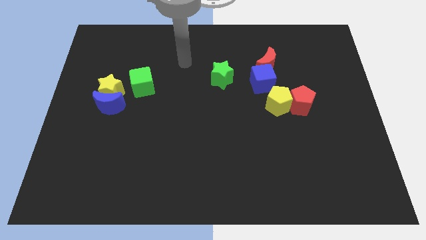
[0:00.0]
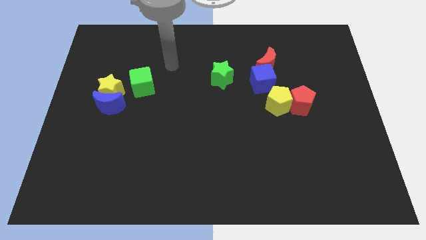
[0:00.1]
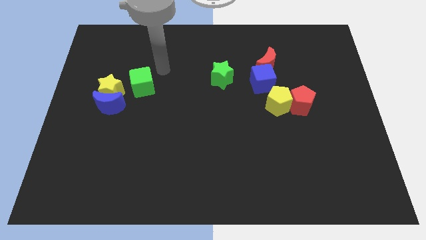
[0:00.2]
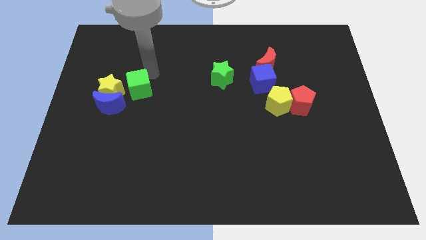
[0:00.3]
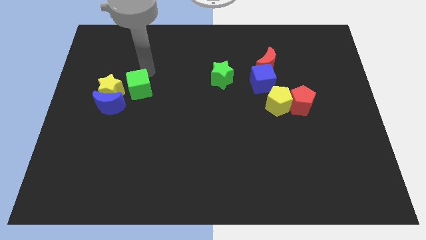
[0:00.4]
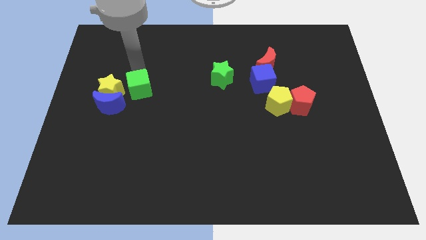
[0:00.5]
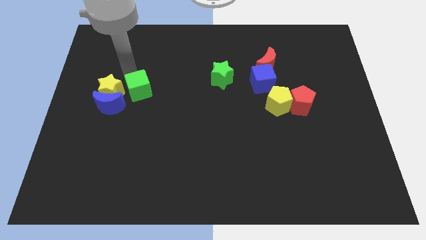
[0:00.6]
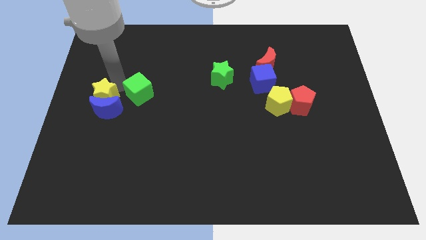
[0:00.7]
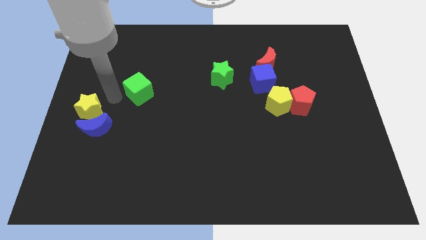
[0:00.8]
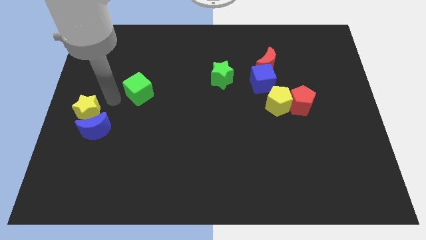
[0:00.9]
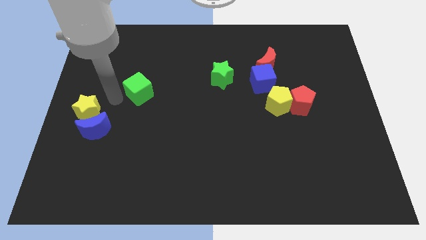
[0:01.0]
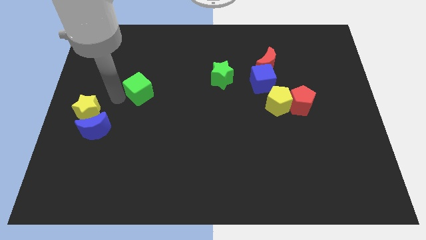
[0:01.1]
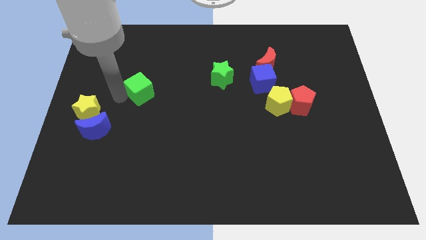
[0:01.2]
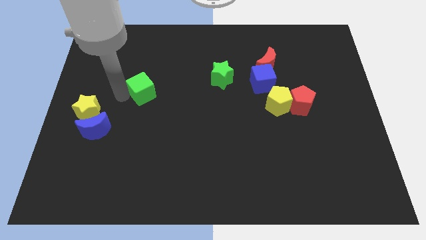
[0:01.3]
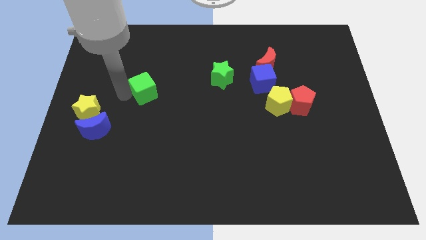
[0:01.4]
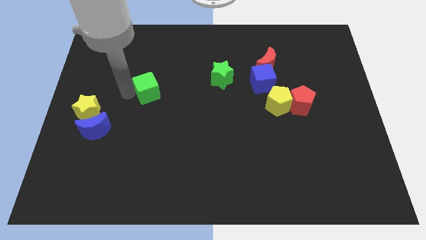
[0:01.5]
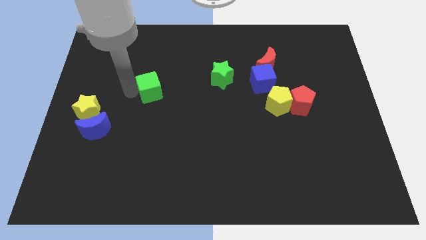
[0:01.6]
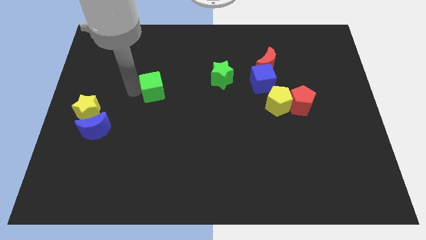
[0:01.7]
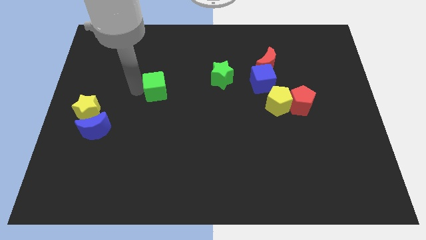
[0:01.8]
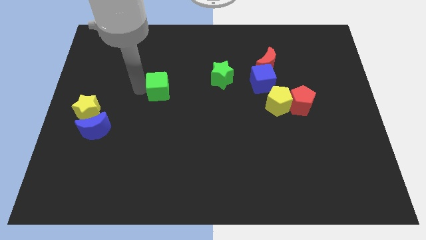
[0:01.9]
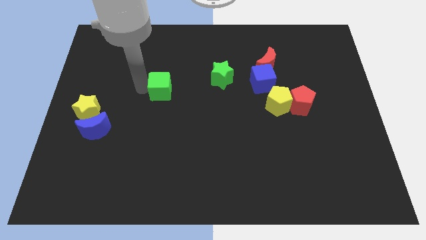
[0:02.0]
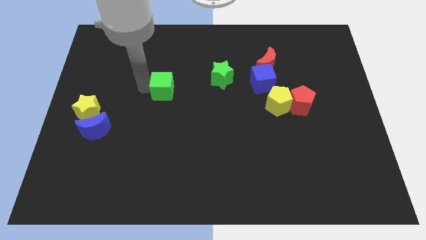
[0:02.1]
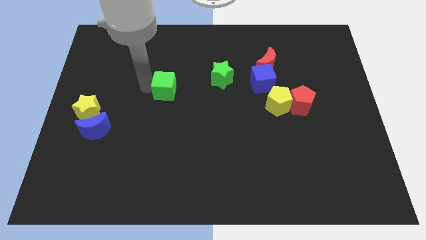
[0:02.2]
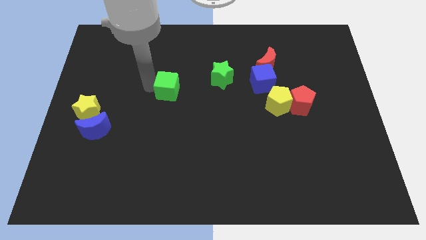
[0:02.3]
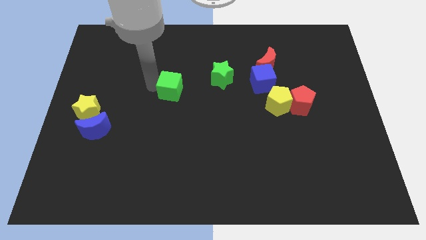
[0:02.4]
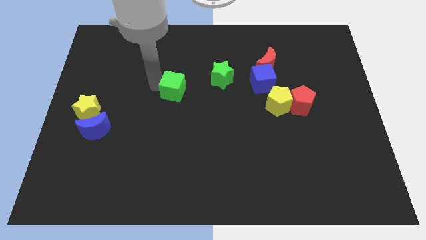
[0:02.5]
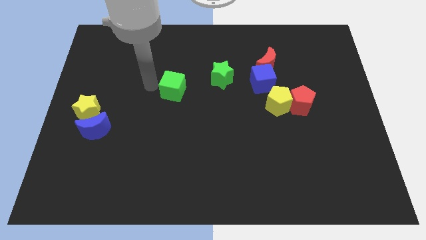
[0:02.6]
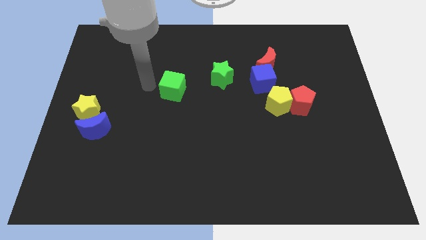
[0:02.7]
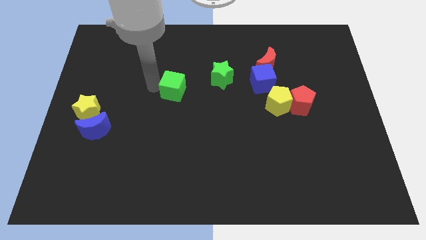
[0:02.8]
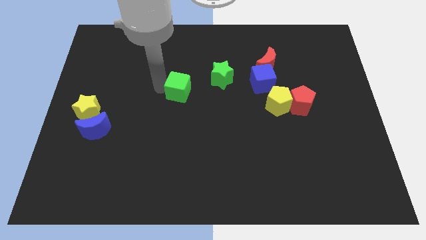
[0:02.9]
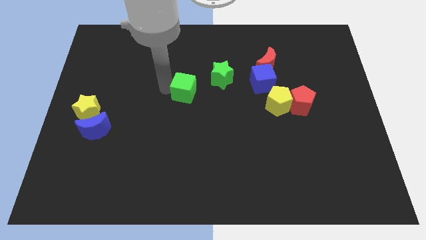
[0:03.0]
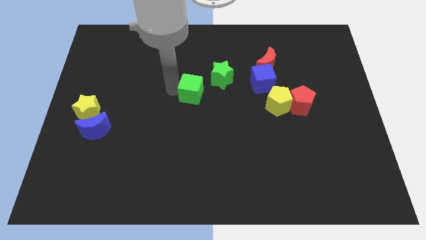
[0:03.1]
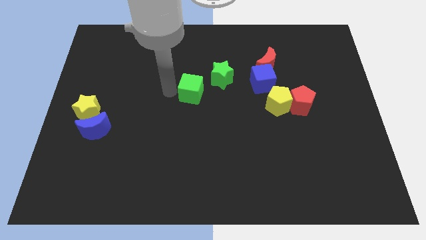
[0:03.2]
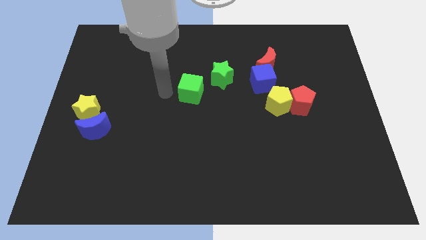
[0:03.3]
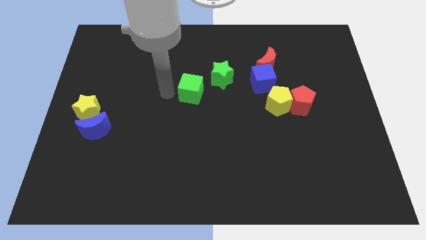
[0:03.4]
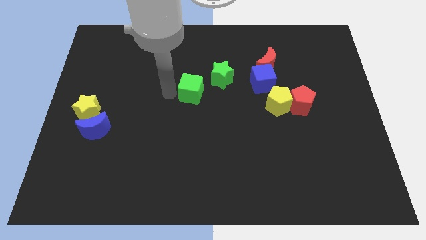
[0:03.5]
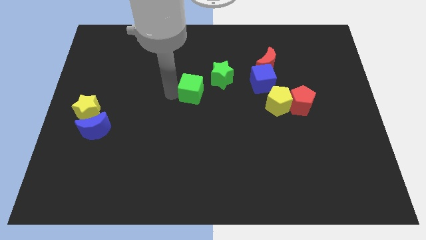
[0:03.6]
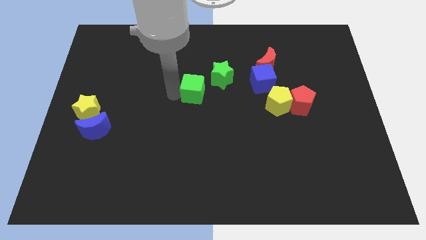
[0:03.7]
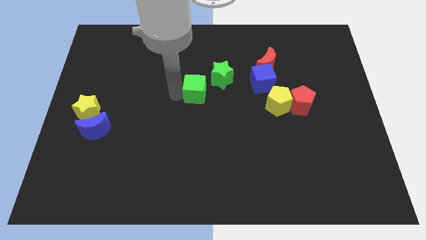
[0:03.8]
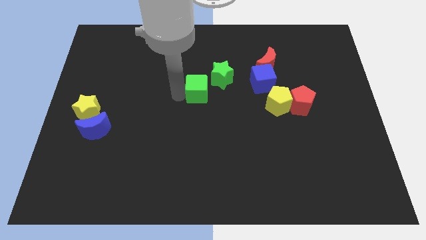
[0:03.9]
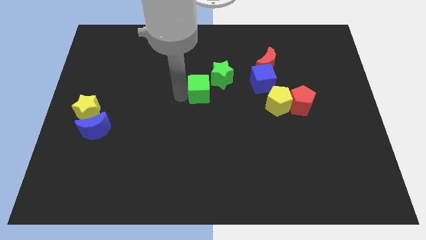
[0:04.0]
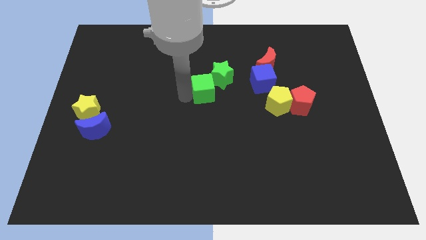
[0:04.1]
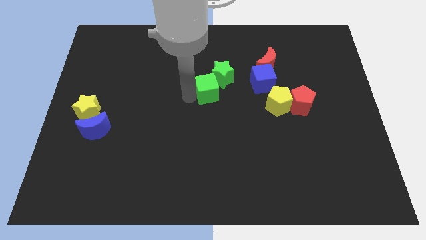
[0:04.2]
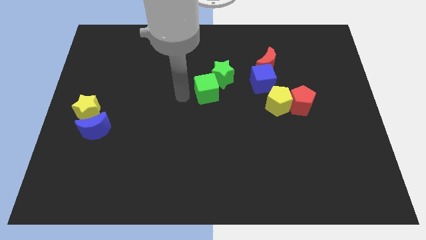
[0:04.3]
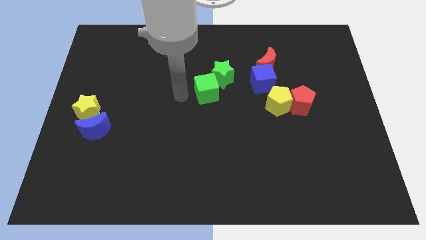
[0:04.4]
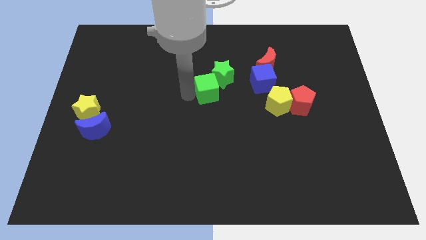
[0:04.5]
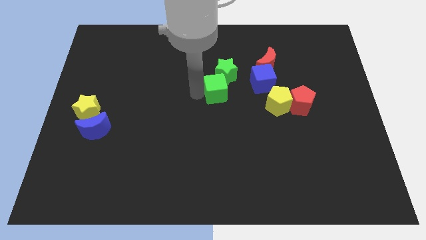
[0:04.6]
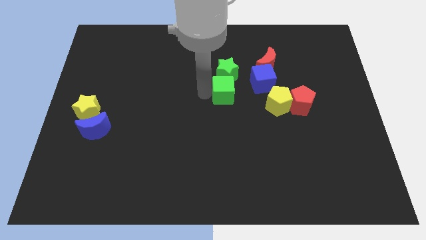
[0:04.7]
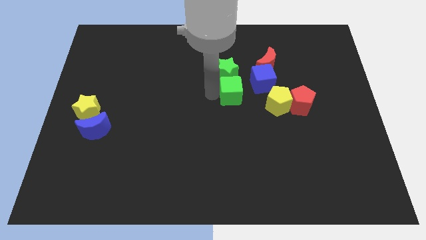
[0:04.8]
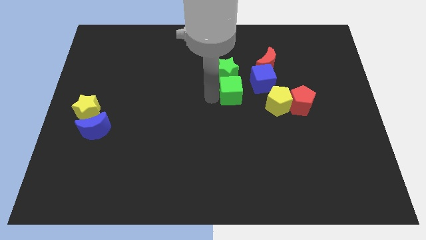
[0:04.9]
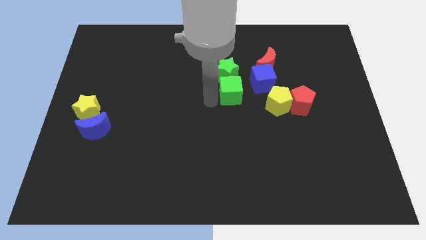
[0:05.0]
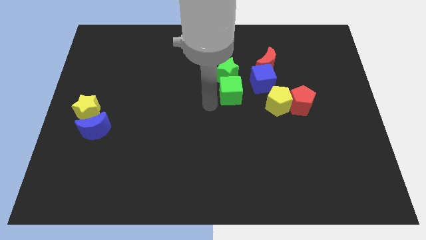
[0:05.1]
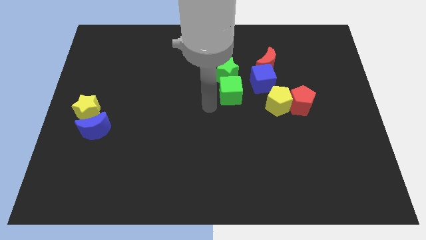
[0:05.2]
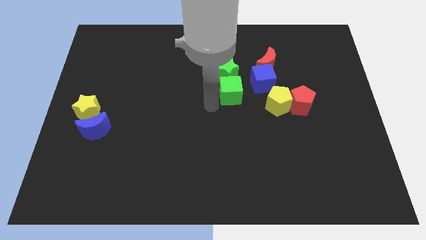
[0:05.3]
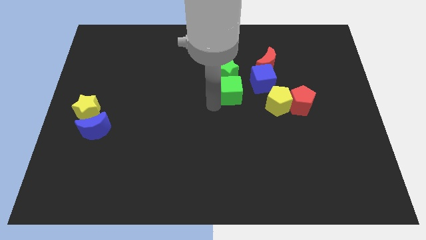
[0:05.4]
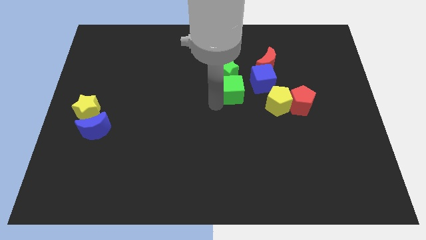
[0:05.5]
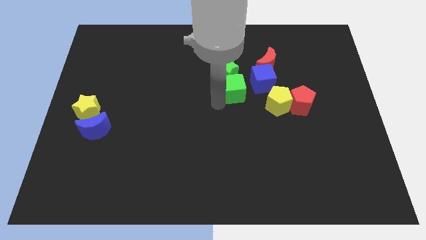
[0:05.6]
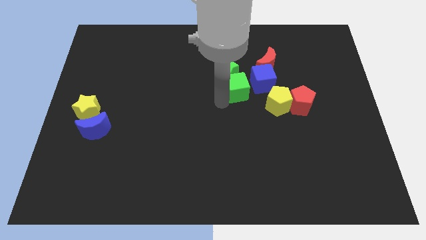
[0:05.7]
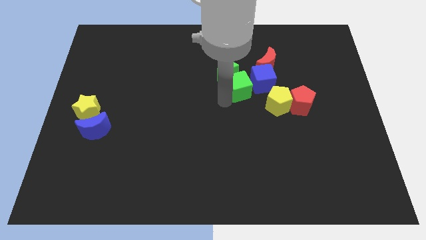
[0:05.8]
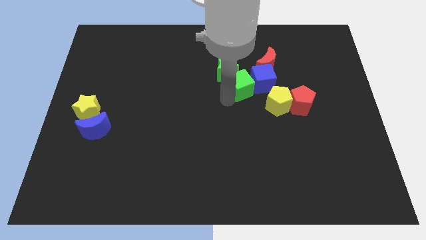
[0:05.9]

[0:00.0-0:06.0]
slide the green cube close to the blue cube

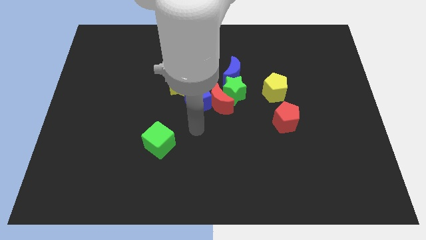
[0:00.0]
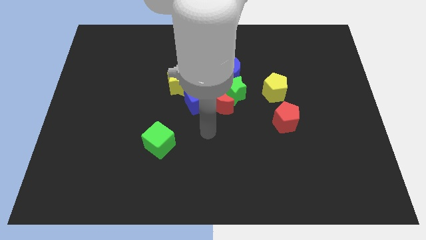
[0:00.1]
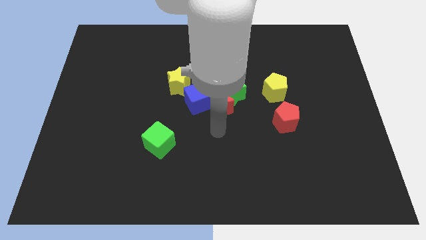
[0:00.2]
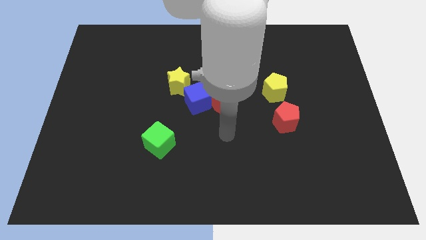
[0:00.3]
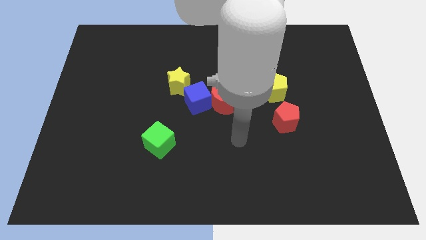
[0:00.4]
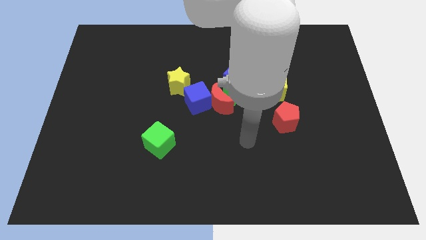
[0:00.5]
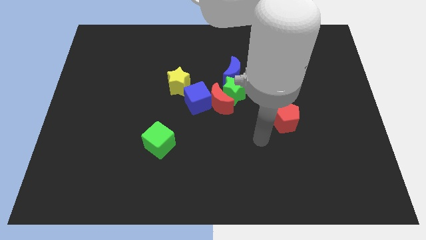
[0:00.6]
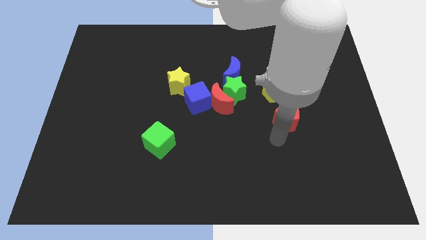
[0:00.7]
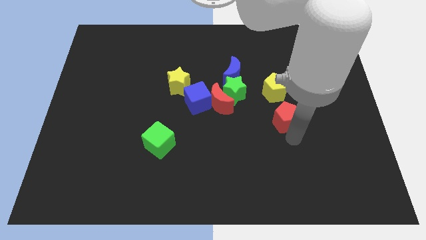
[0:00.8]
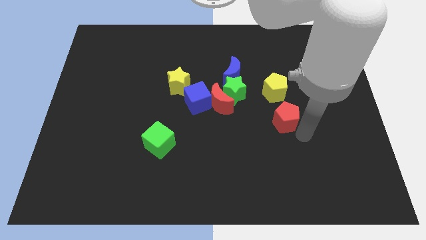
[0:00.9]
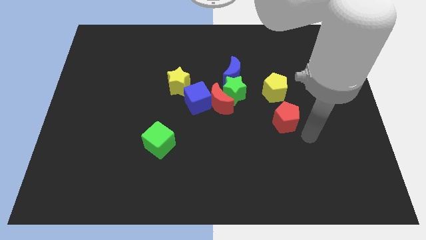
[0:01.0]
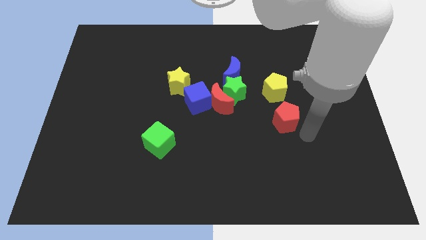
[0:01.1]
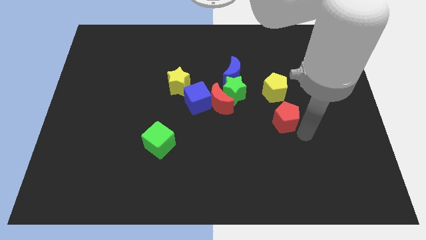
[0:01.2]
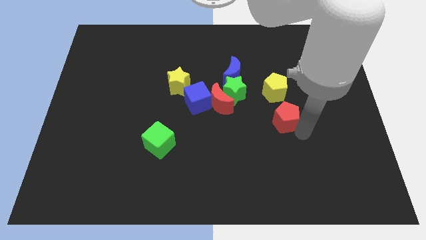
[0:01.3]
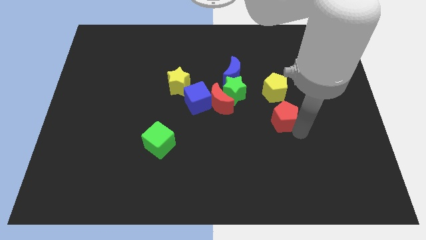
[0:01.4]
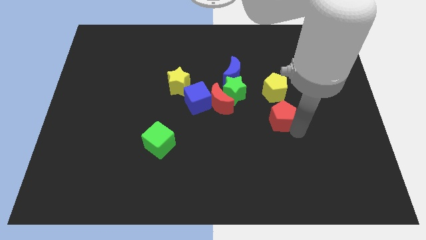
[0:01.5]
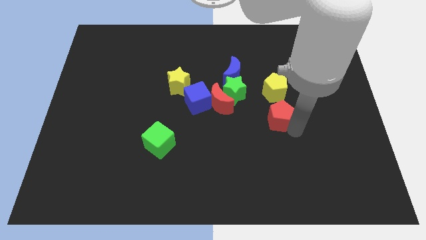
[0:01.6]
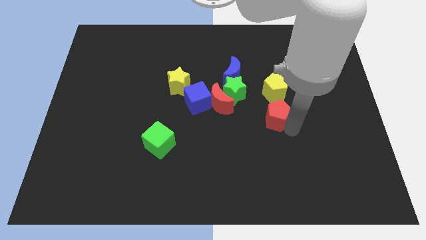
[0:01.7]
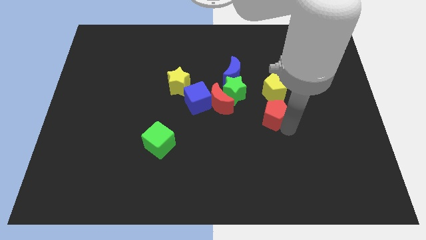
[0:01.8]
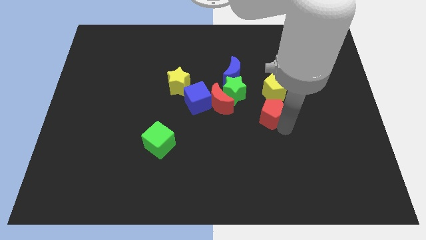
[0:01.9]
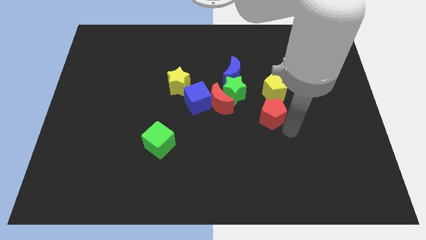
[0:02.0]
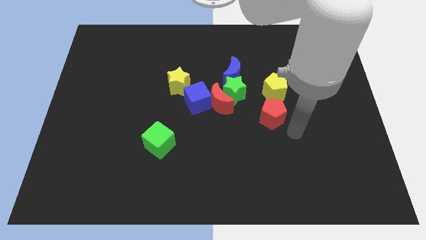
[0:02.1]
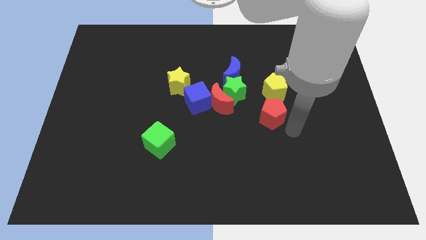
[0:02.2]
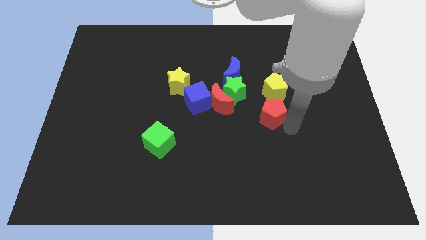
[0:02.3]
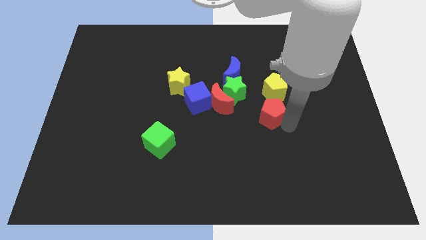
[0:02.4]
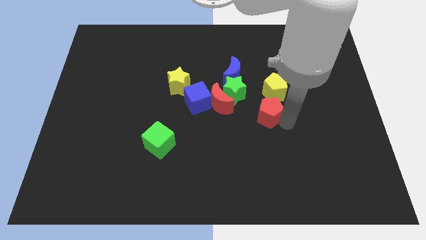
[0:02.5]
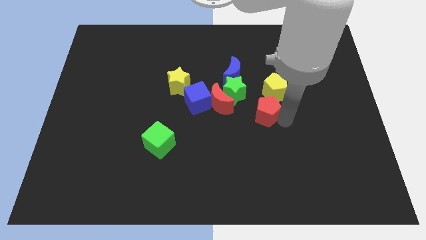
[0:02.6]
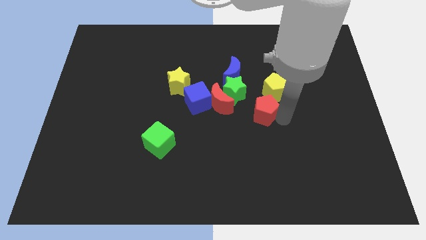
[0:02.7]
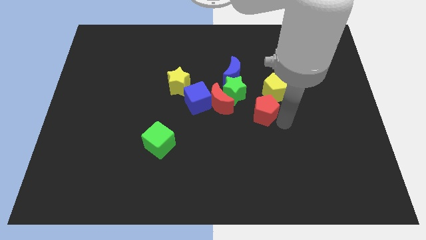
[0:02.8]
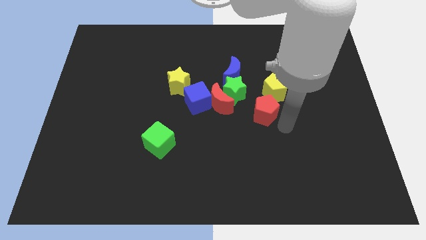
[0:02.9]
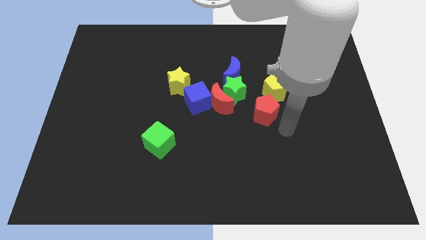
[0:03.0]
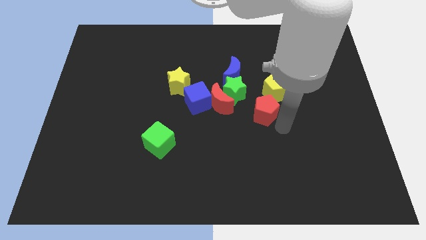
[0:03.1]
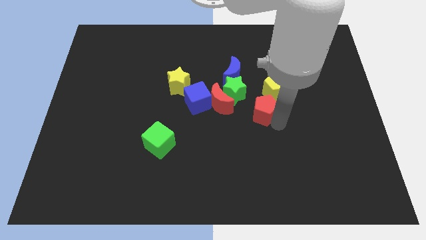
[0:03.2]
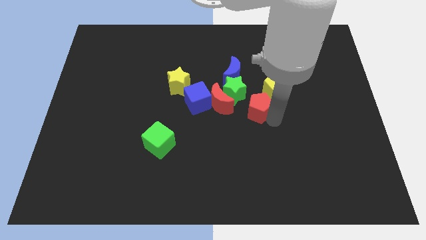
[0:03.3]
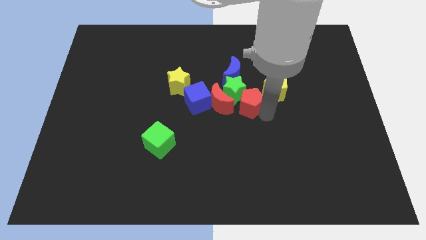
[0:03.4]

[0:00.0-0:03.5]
put the red pentagon to the green star
